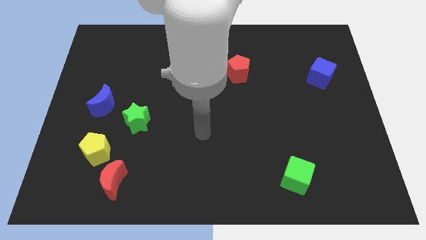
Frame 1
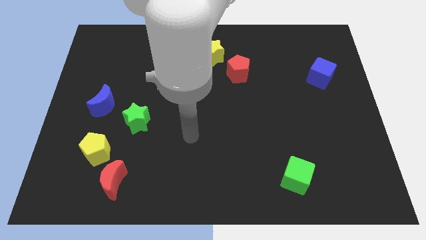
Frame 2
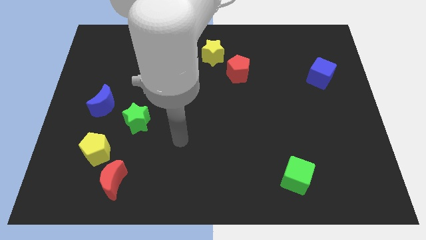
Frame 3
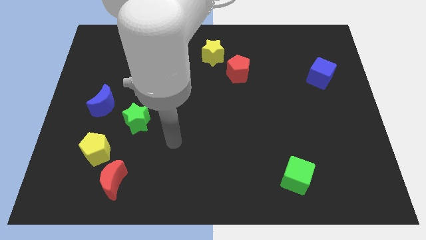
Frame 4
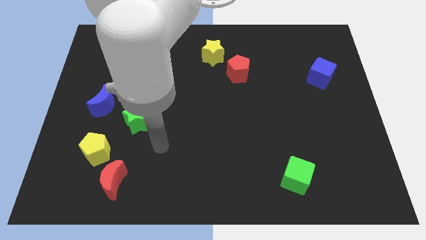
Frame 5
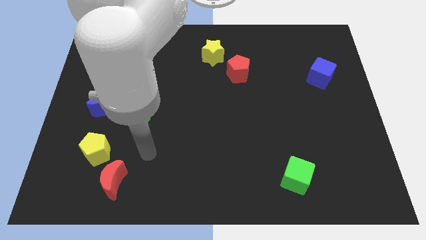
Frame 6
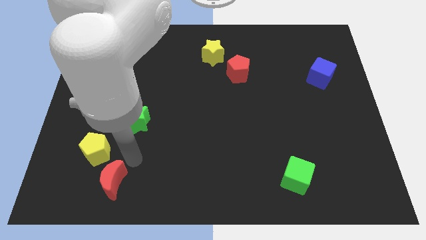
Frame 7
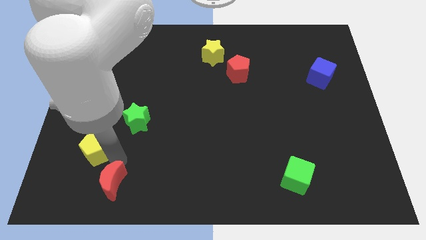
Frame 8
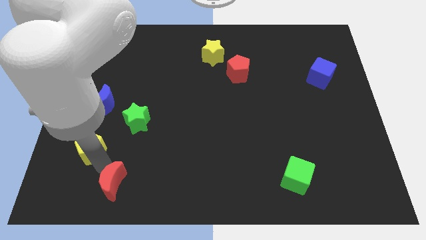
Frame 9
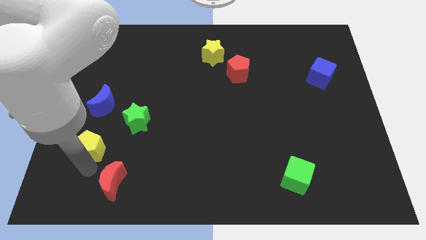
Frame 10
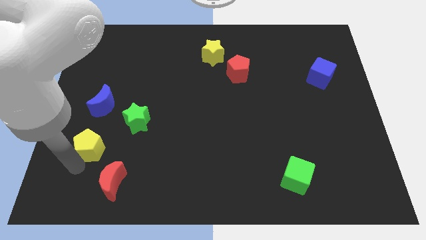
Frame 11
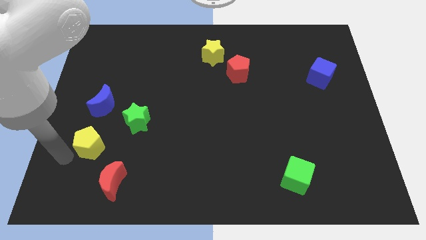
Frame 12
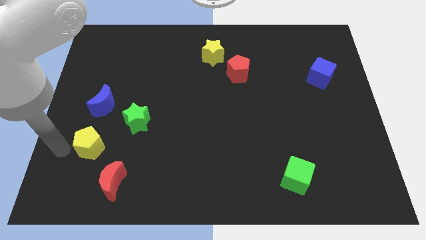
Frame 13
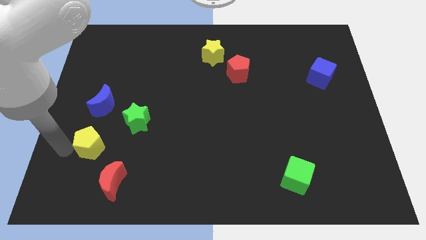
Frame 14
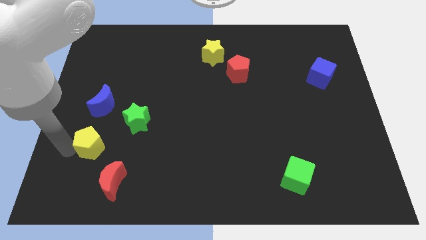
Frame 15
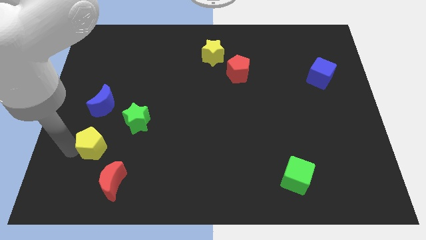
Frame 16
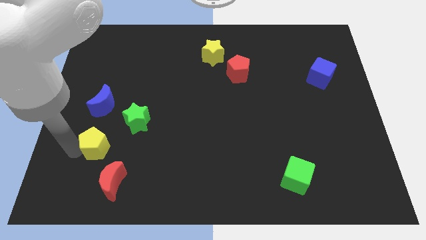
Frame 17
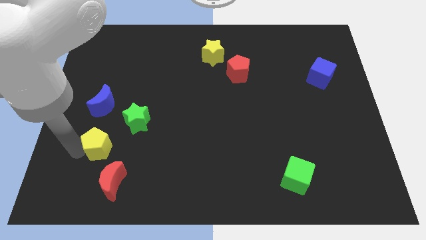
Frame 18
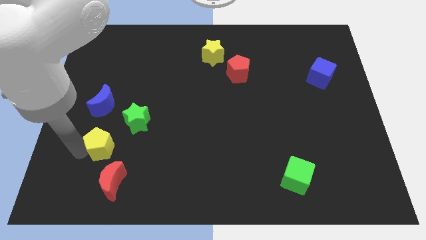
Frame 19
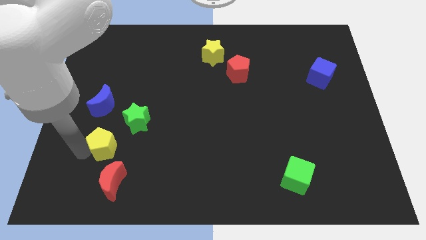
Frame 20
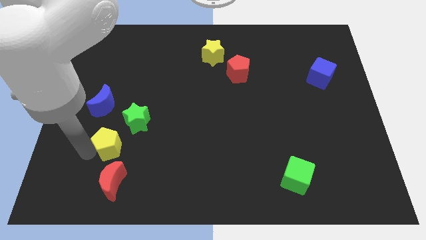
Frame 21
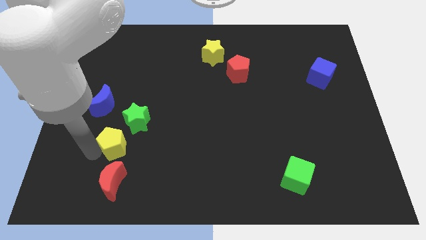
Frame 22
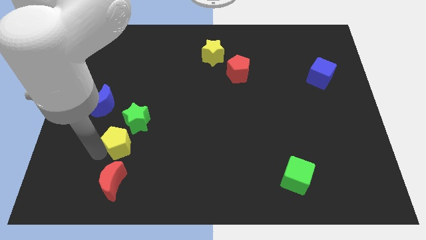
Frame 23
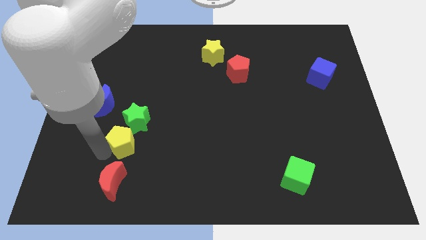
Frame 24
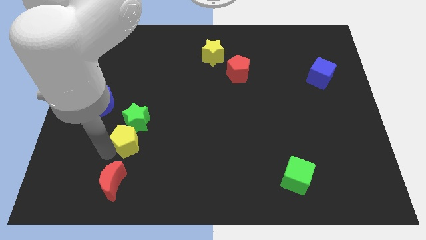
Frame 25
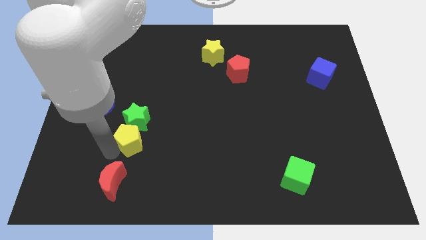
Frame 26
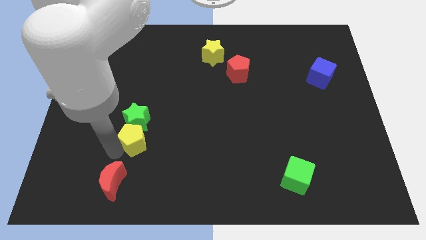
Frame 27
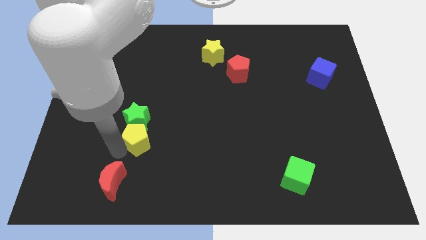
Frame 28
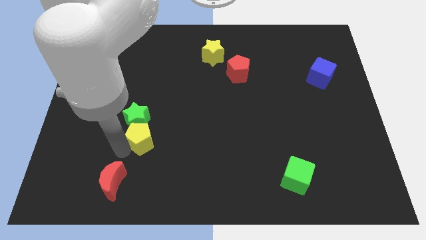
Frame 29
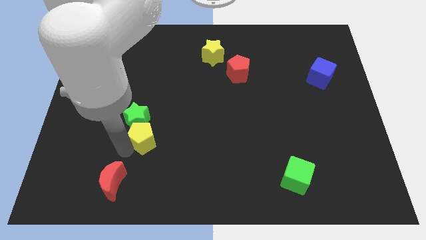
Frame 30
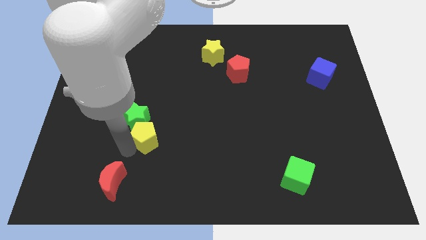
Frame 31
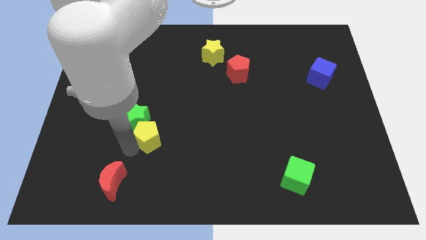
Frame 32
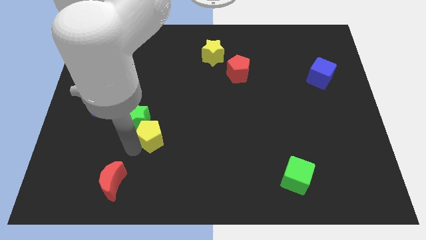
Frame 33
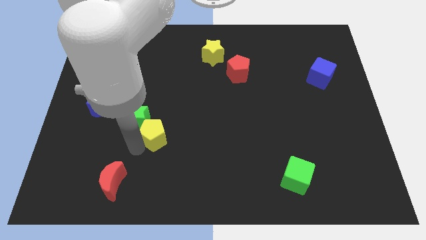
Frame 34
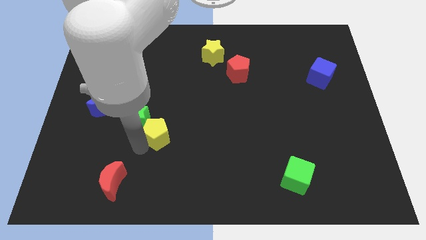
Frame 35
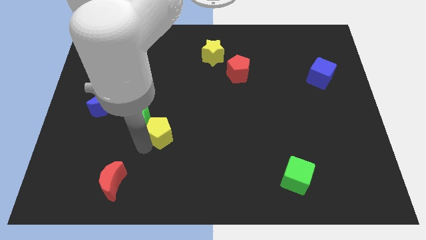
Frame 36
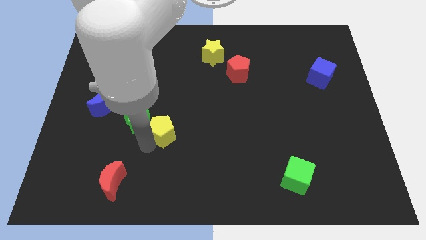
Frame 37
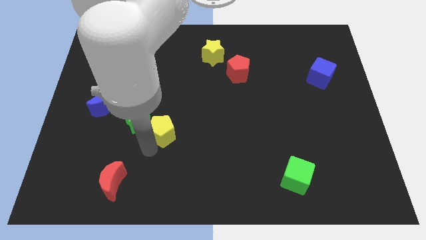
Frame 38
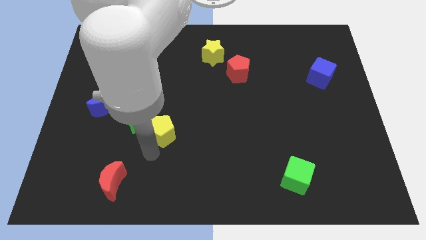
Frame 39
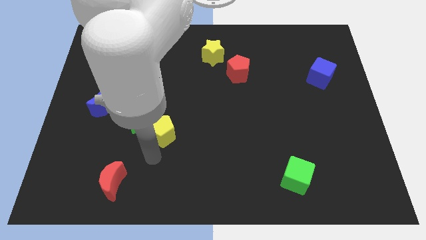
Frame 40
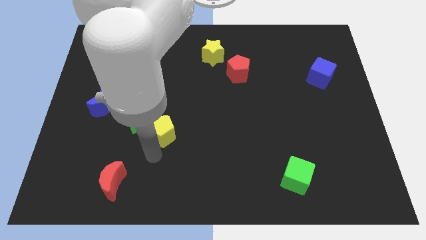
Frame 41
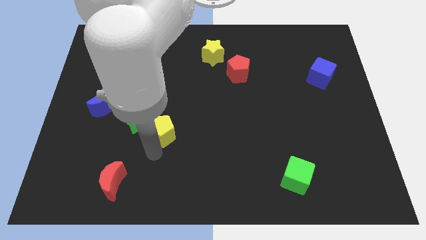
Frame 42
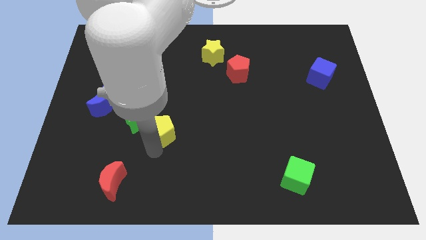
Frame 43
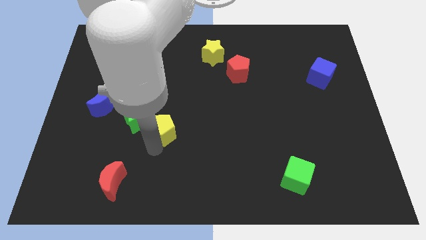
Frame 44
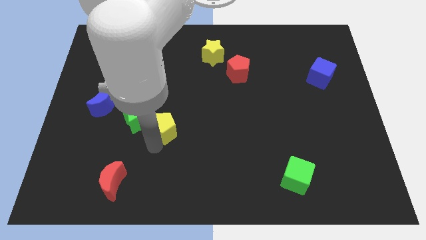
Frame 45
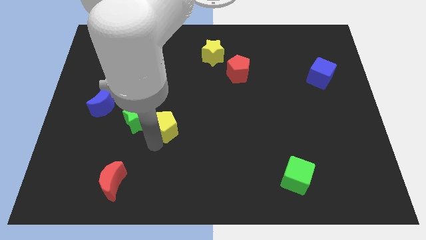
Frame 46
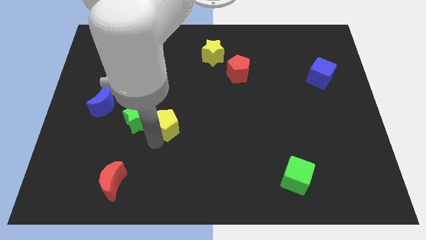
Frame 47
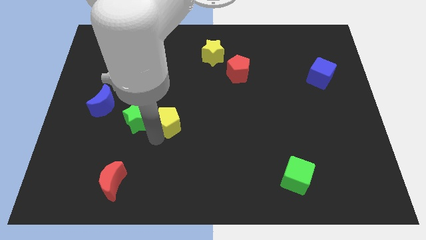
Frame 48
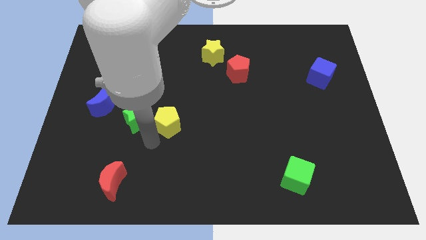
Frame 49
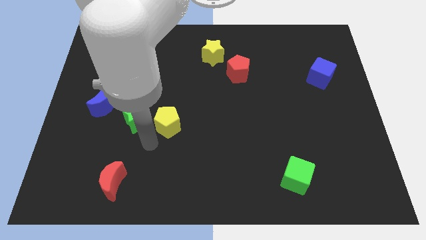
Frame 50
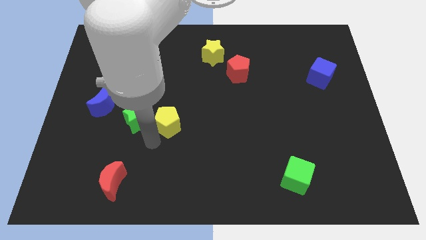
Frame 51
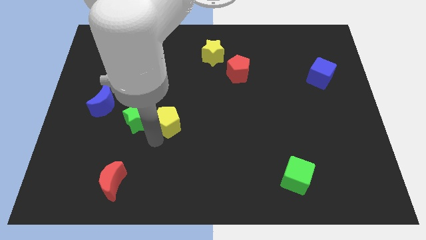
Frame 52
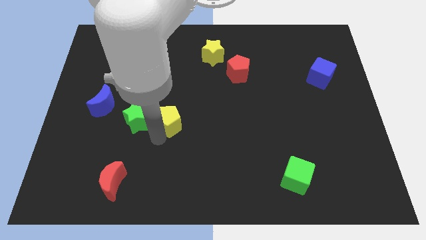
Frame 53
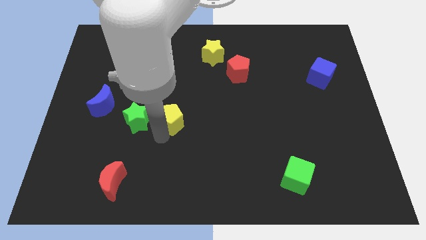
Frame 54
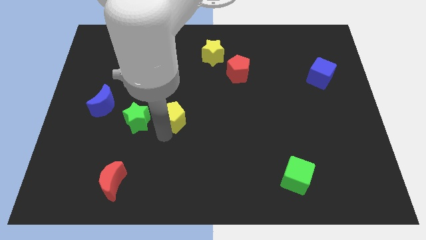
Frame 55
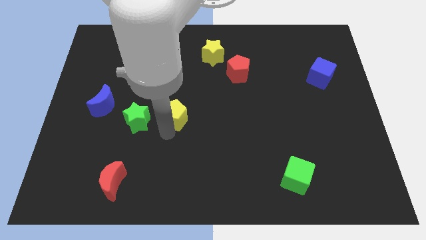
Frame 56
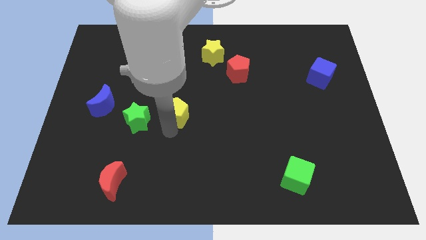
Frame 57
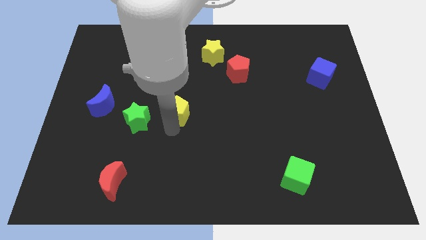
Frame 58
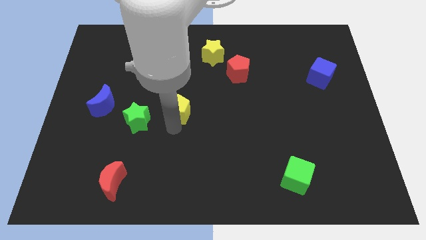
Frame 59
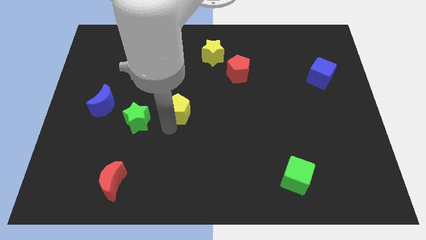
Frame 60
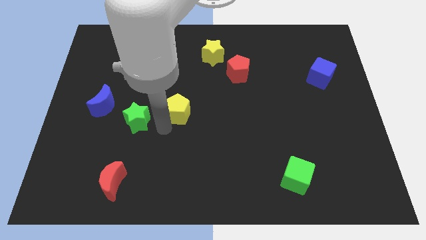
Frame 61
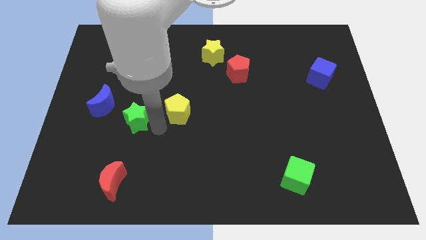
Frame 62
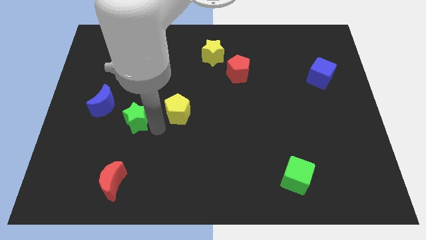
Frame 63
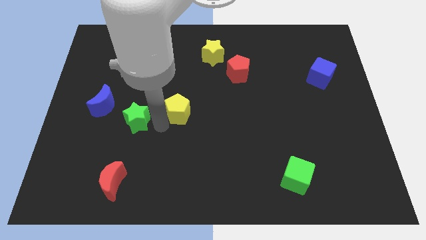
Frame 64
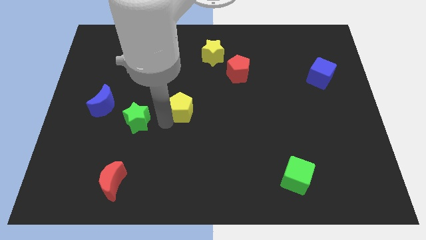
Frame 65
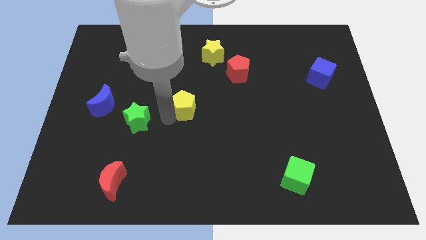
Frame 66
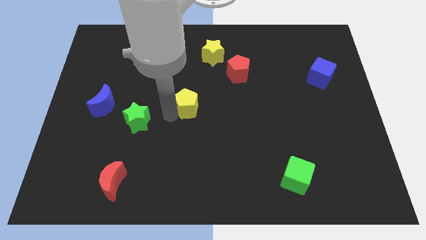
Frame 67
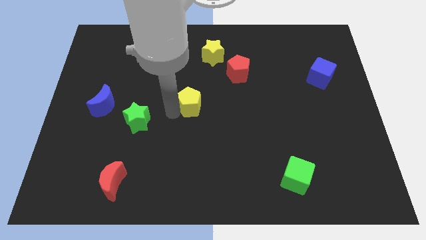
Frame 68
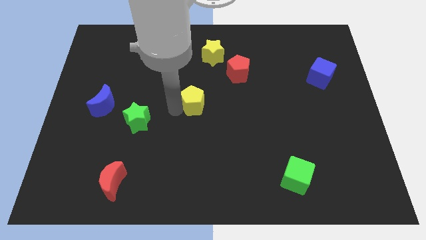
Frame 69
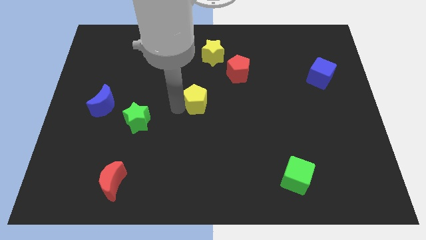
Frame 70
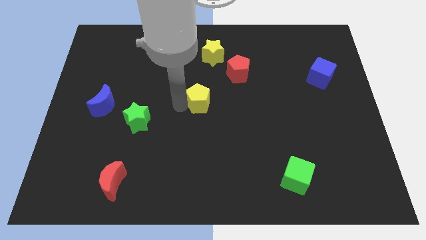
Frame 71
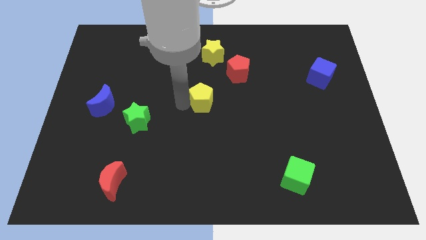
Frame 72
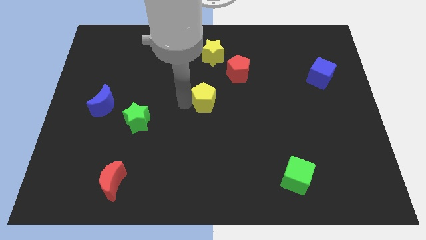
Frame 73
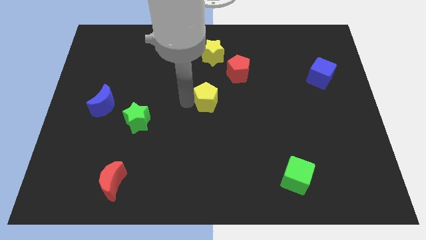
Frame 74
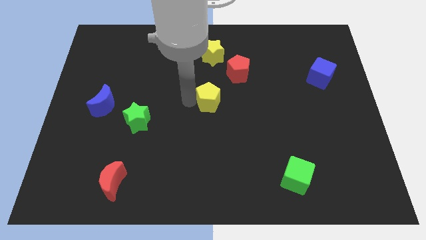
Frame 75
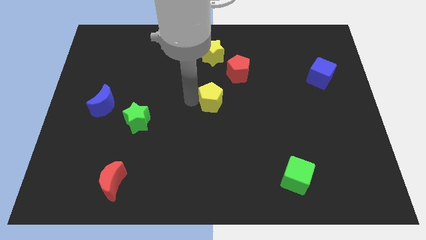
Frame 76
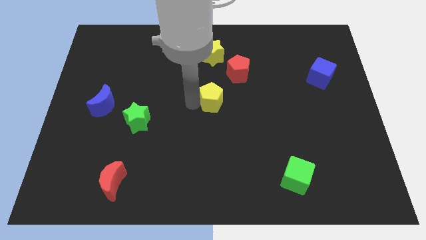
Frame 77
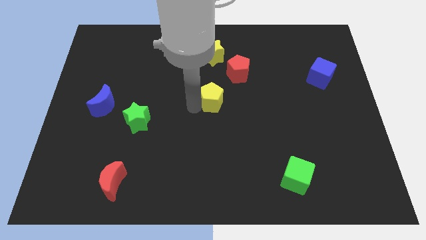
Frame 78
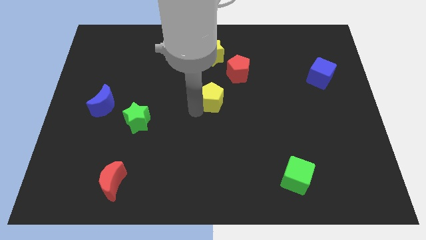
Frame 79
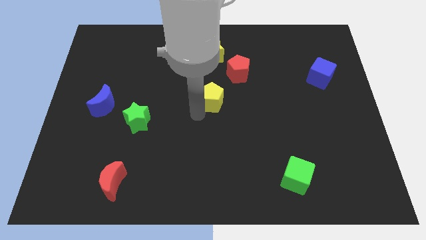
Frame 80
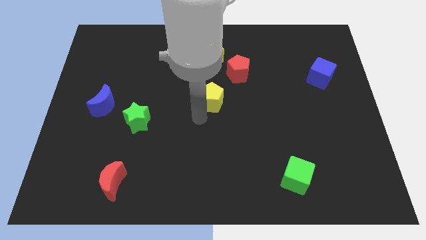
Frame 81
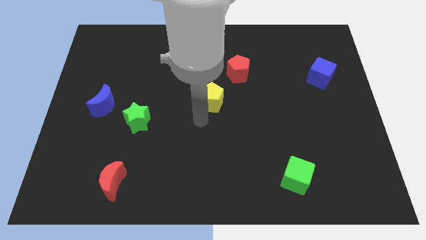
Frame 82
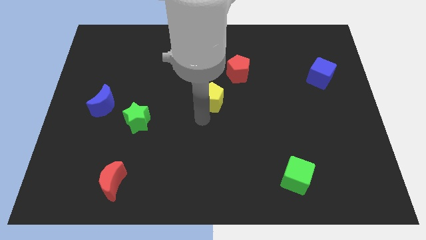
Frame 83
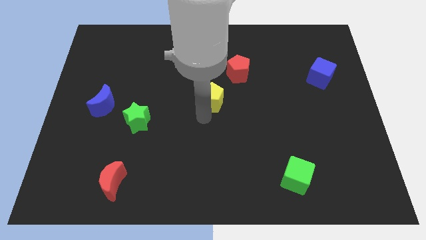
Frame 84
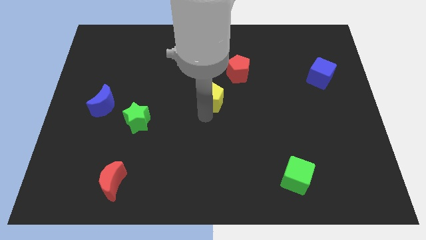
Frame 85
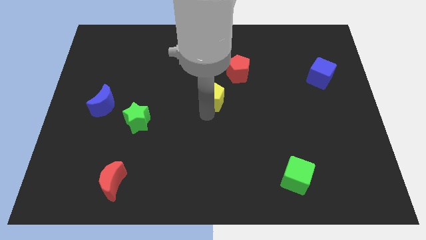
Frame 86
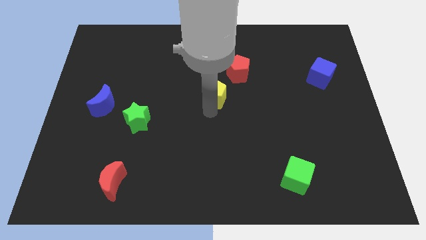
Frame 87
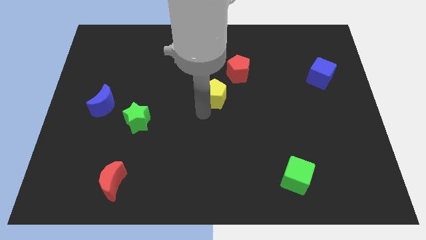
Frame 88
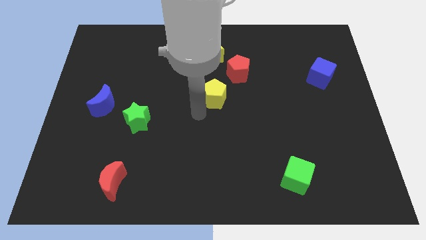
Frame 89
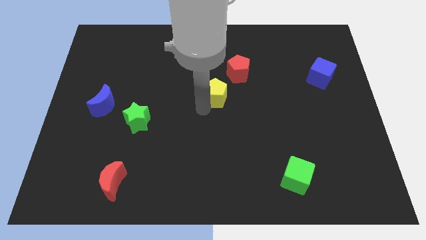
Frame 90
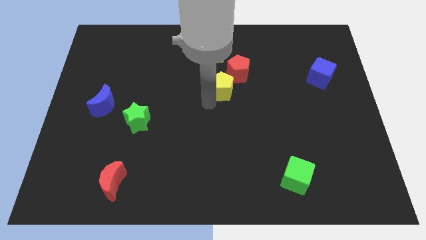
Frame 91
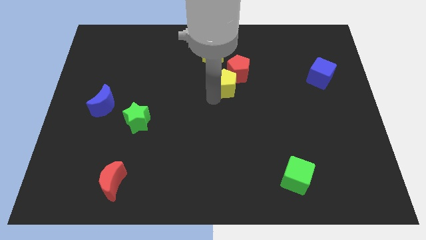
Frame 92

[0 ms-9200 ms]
put the yellow pentagon next to the red pentagon
